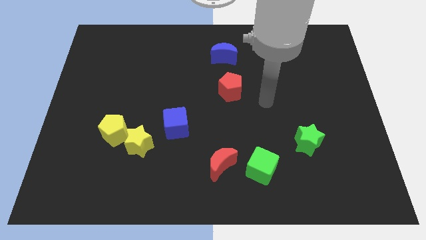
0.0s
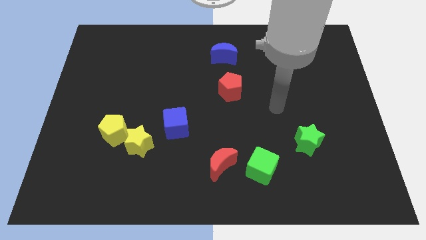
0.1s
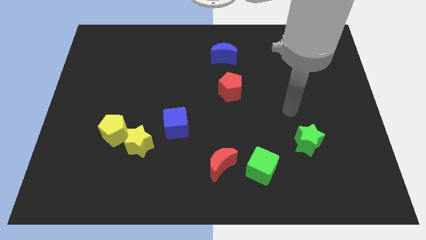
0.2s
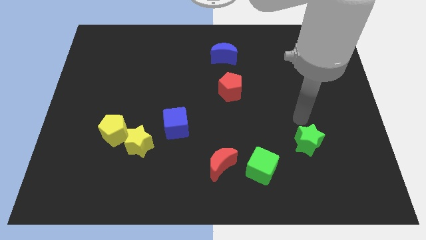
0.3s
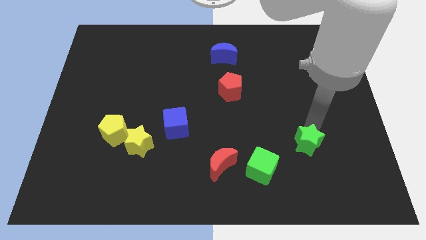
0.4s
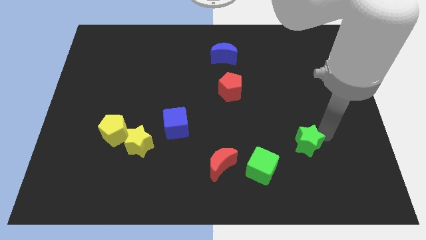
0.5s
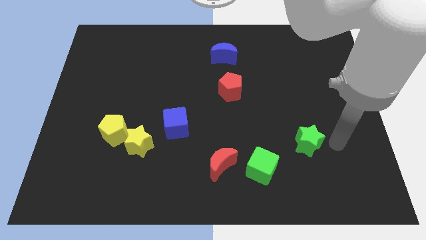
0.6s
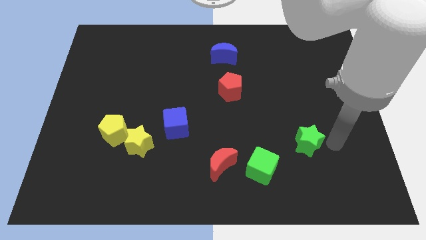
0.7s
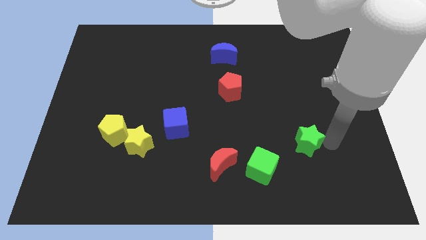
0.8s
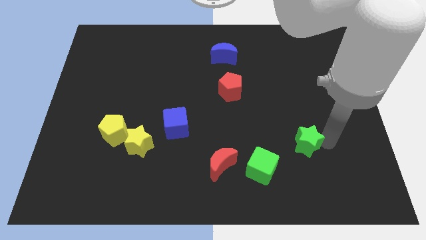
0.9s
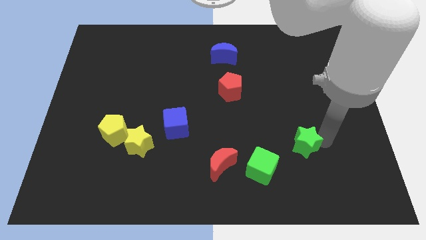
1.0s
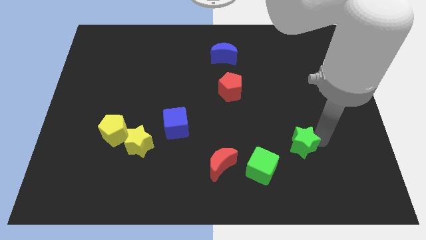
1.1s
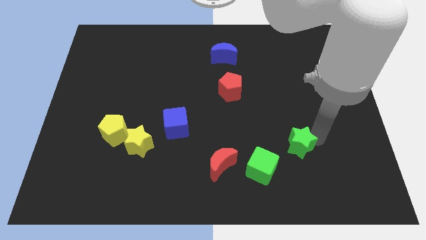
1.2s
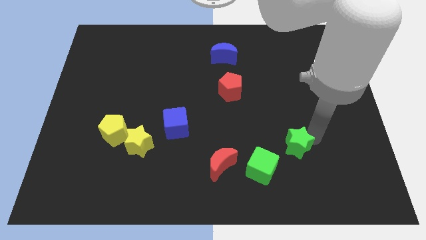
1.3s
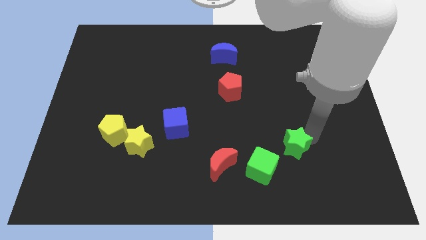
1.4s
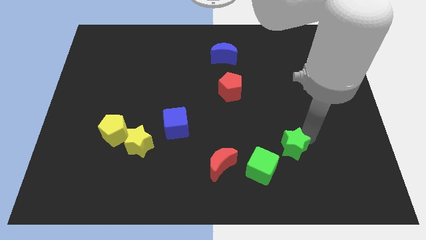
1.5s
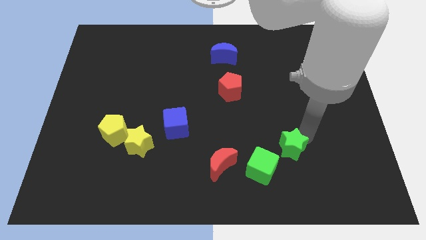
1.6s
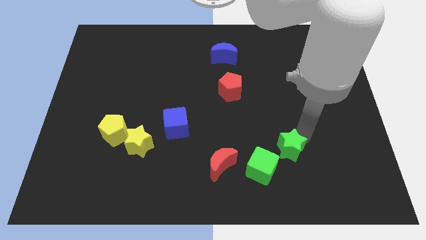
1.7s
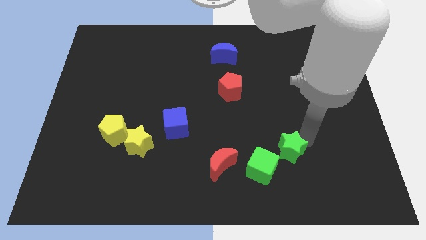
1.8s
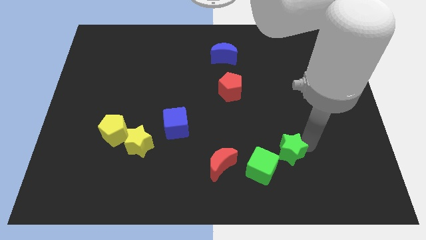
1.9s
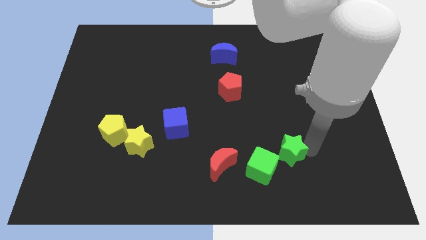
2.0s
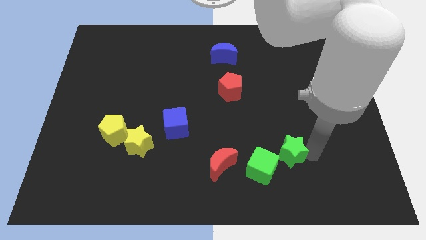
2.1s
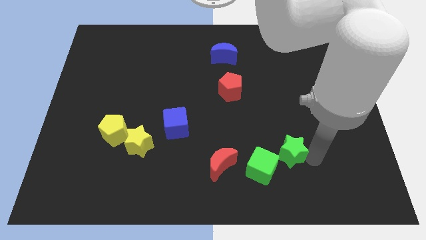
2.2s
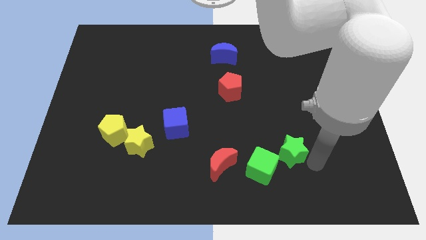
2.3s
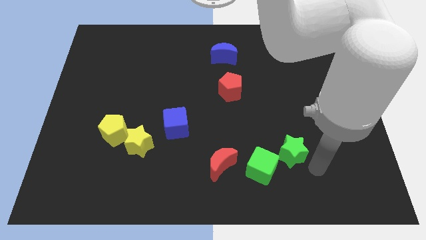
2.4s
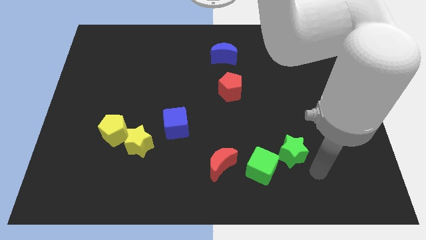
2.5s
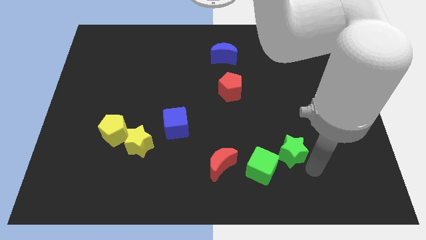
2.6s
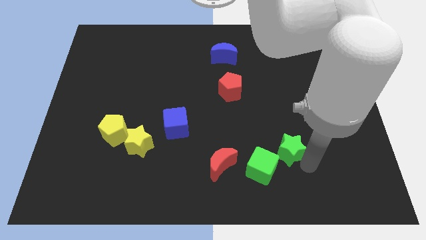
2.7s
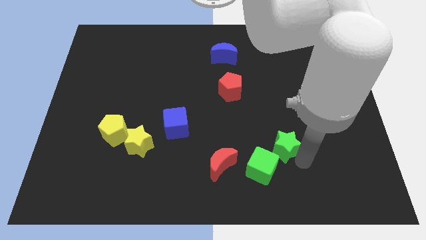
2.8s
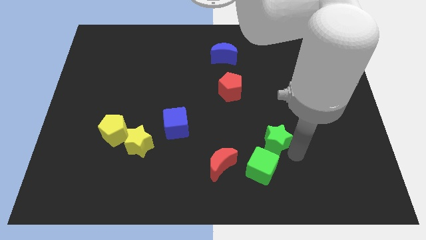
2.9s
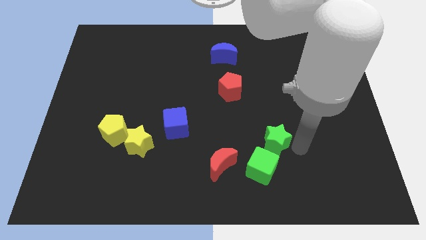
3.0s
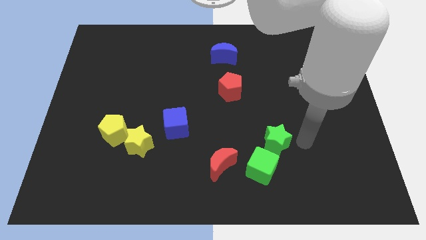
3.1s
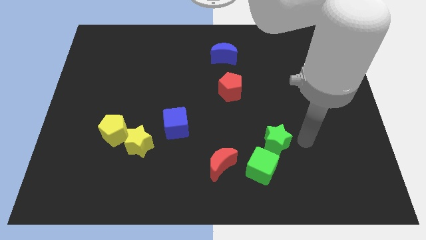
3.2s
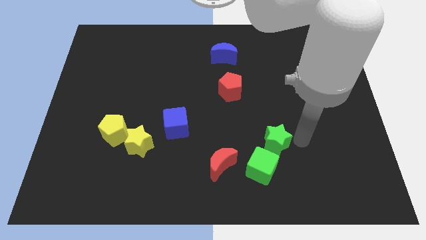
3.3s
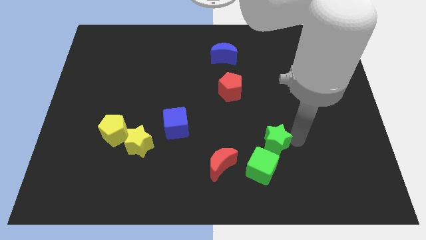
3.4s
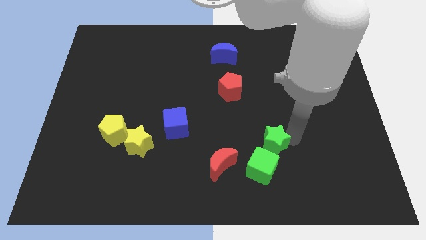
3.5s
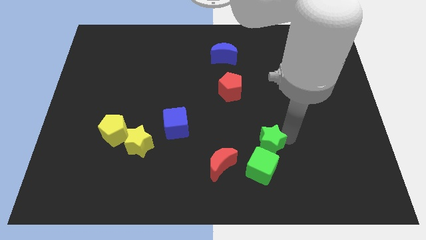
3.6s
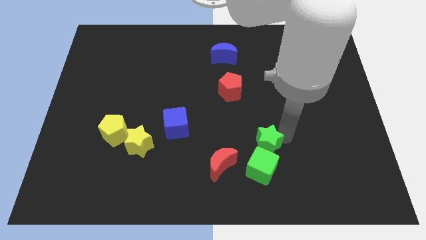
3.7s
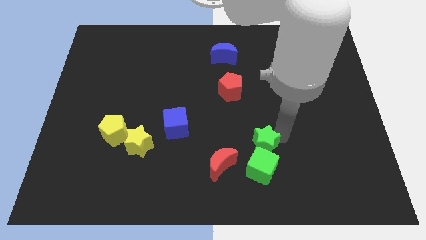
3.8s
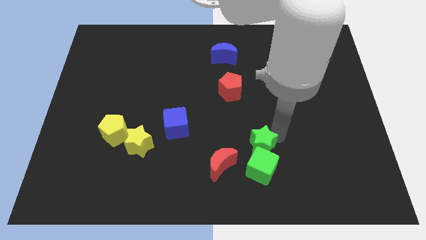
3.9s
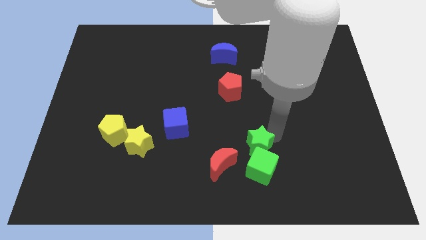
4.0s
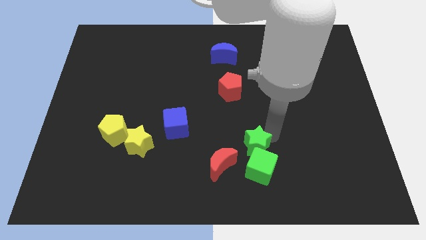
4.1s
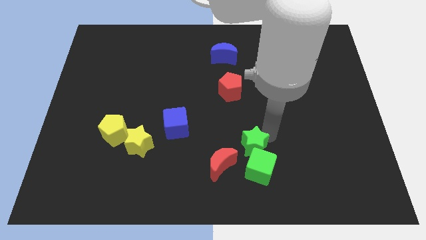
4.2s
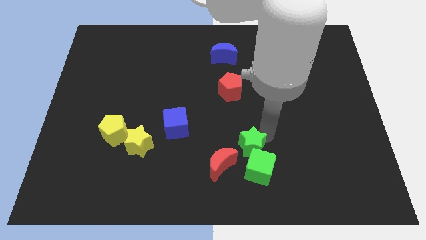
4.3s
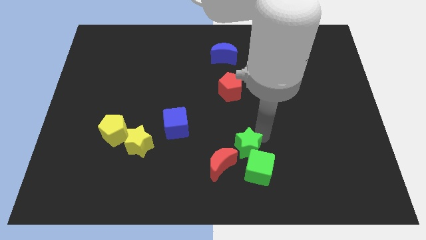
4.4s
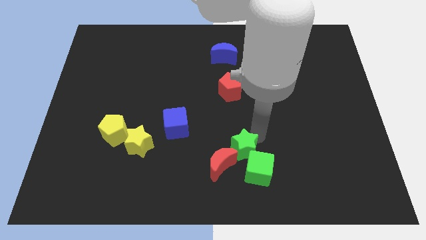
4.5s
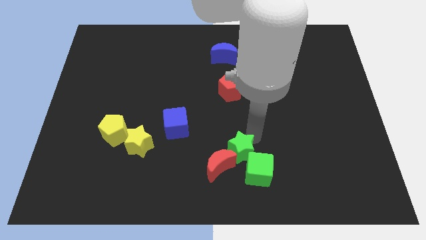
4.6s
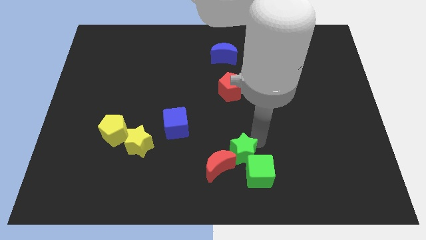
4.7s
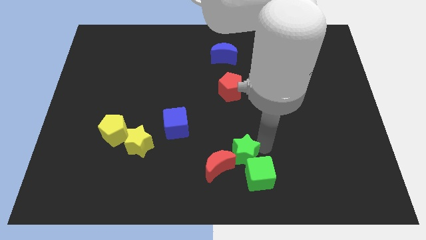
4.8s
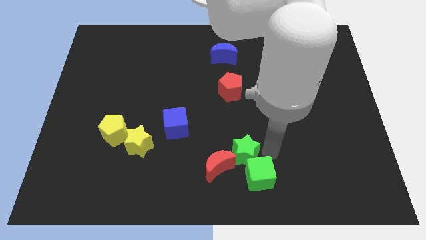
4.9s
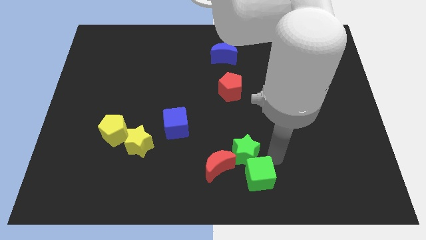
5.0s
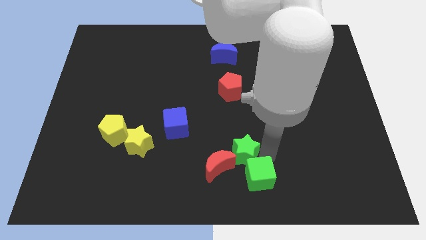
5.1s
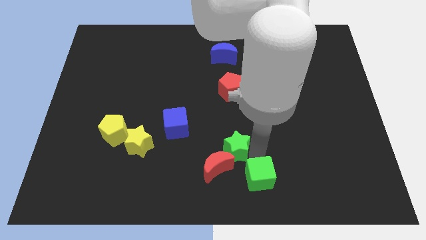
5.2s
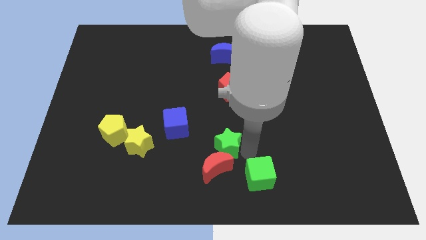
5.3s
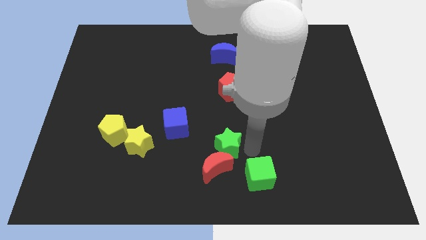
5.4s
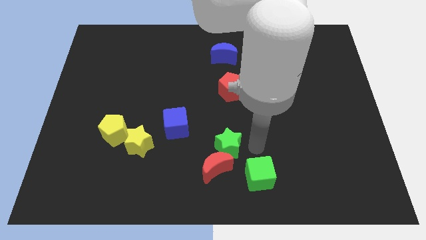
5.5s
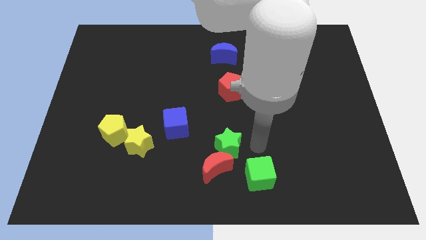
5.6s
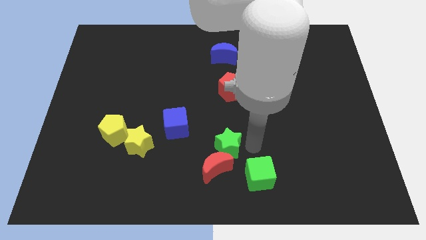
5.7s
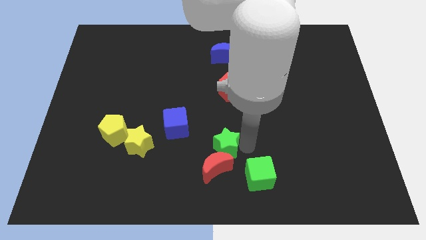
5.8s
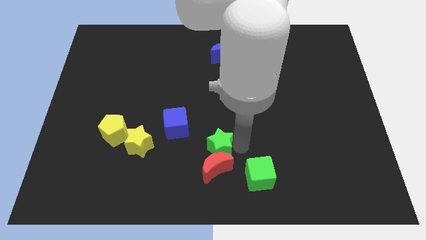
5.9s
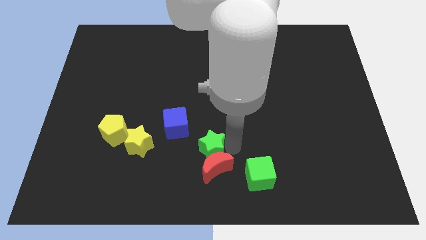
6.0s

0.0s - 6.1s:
slide the green star to the left

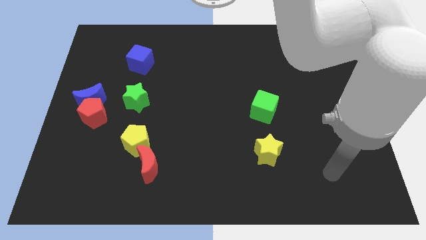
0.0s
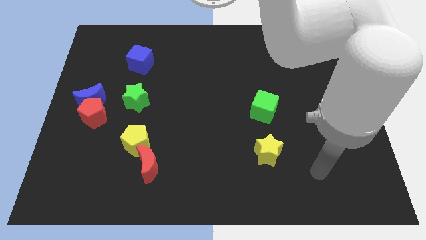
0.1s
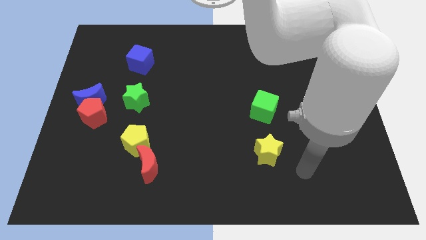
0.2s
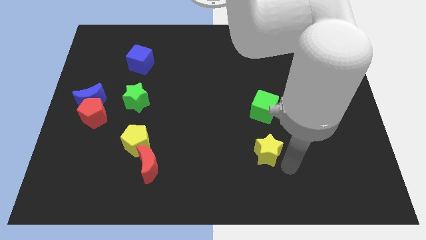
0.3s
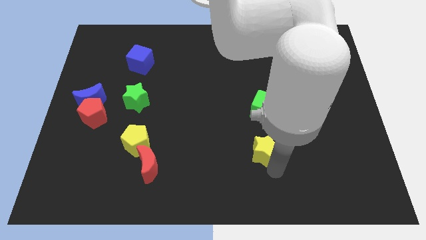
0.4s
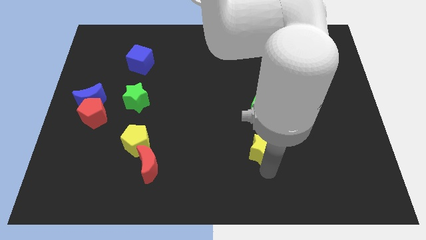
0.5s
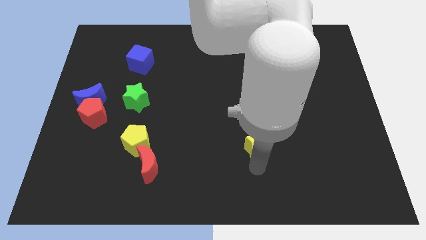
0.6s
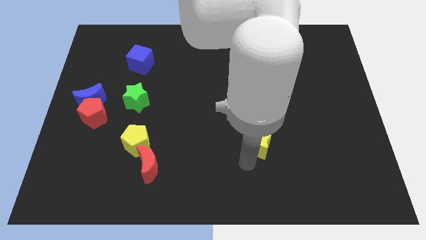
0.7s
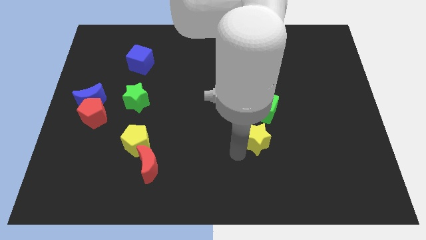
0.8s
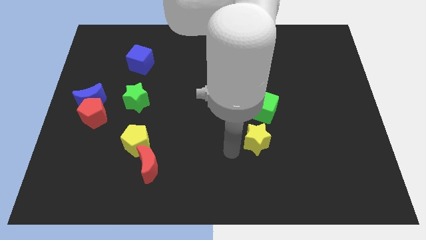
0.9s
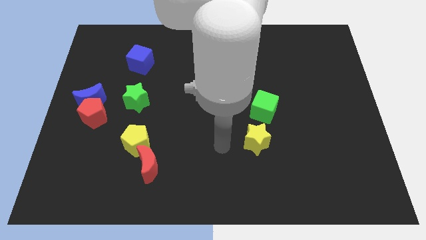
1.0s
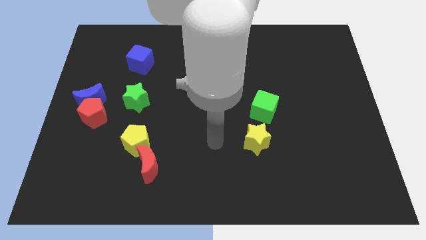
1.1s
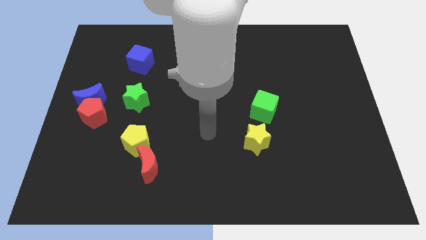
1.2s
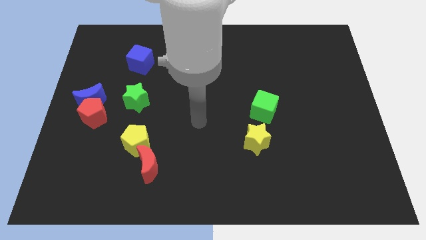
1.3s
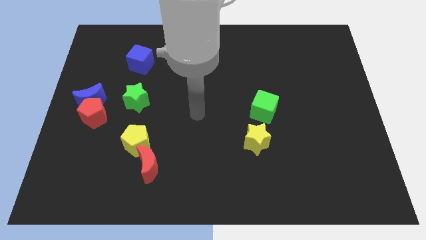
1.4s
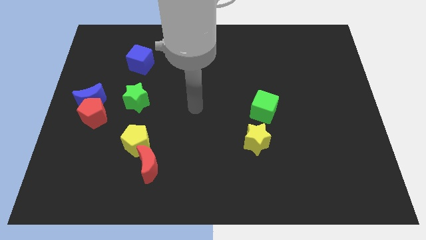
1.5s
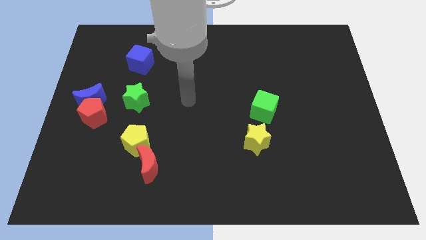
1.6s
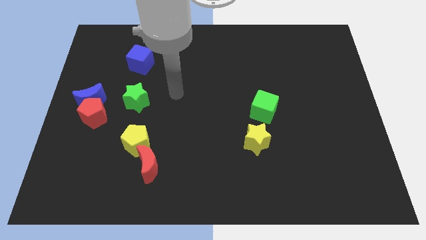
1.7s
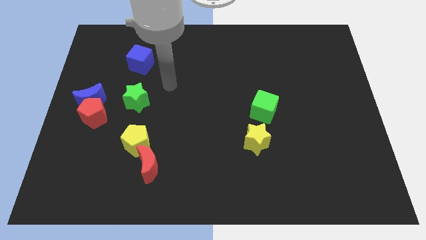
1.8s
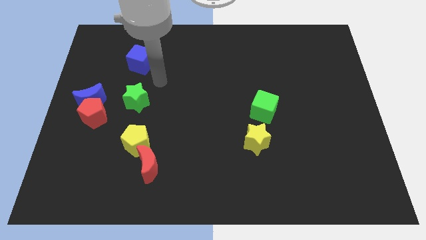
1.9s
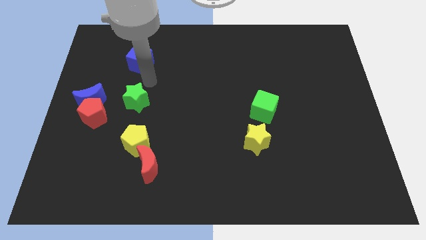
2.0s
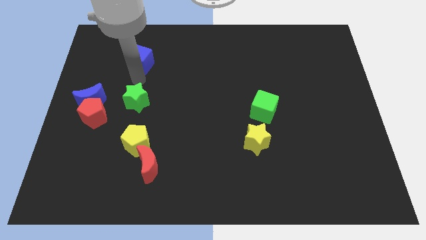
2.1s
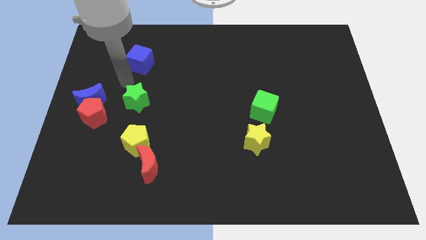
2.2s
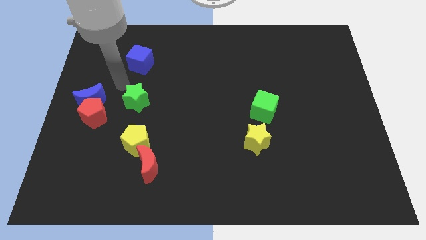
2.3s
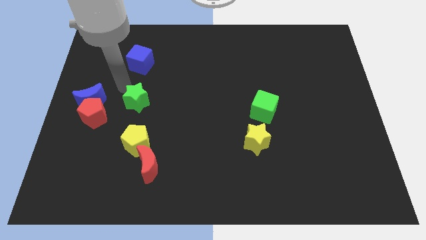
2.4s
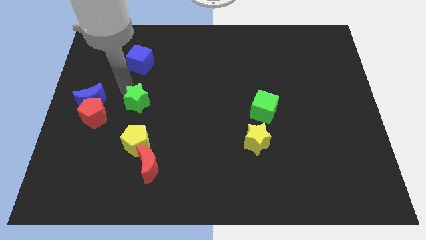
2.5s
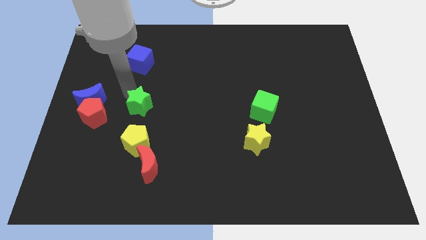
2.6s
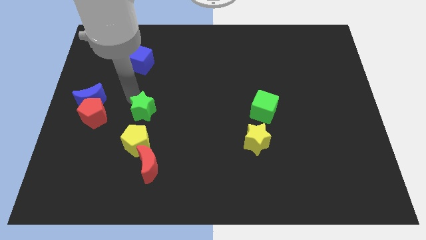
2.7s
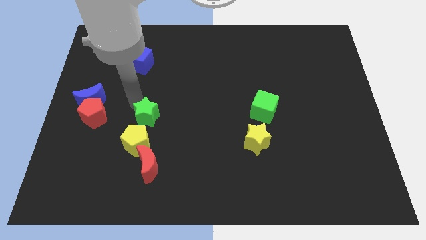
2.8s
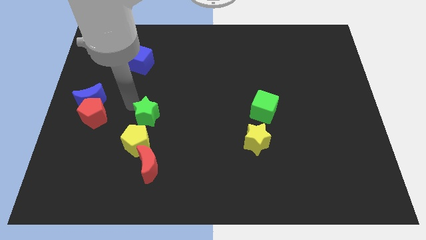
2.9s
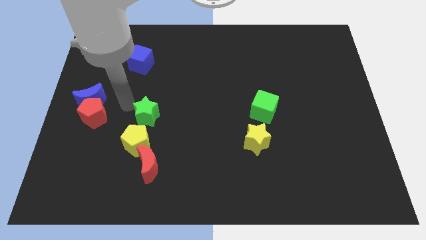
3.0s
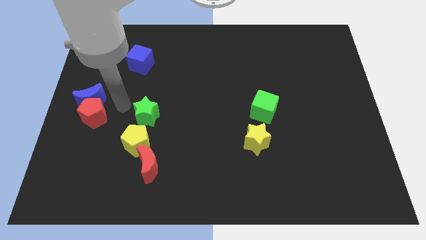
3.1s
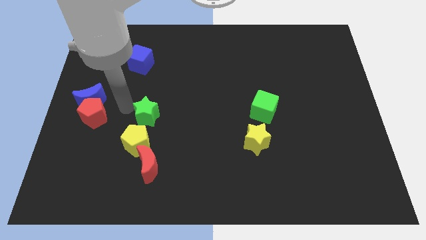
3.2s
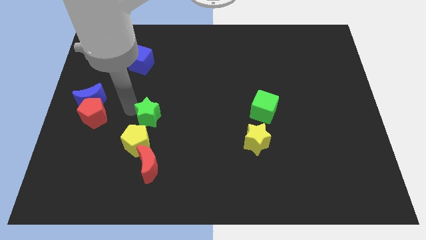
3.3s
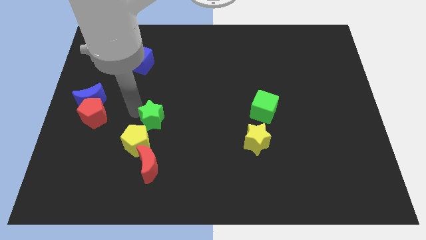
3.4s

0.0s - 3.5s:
push the green star a little bit downwards and to the right
